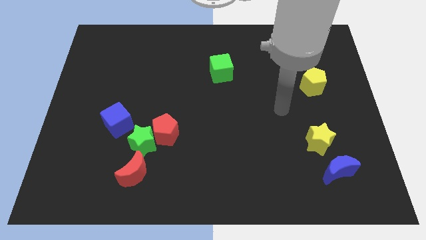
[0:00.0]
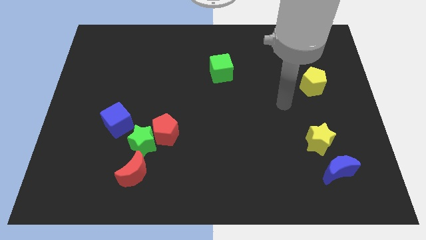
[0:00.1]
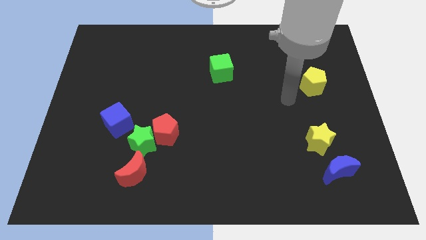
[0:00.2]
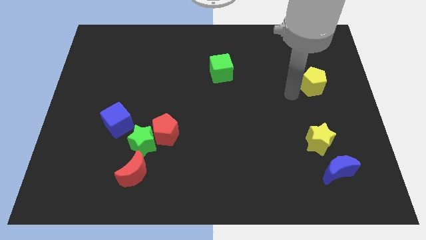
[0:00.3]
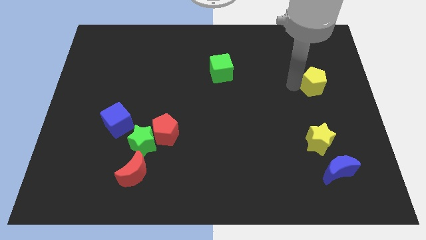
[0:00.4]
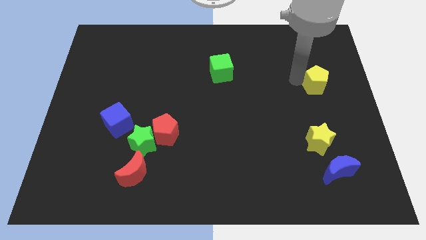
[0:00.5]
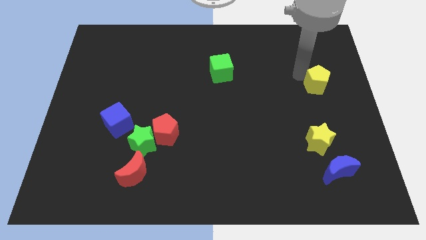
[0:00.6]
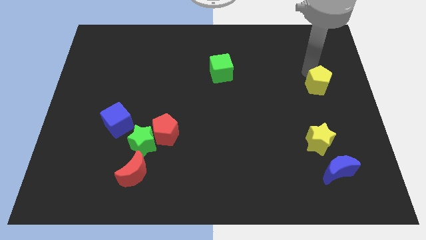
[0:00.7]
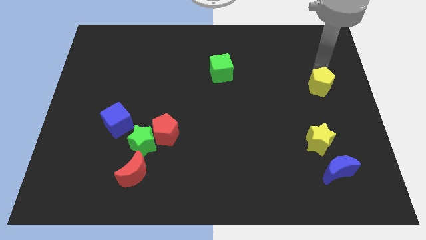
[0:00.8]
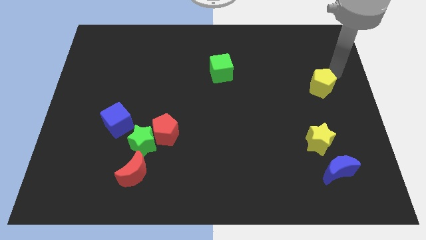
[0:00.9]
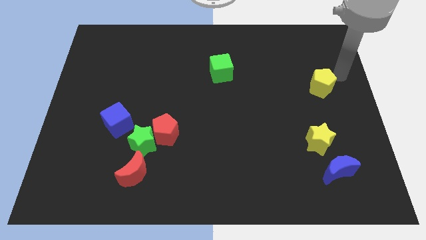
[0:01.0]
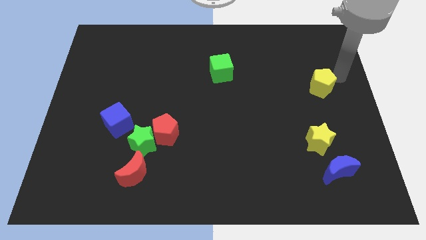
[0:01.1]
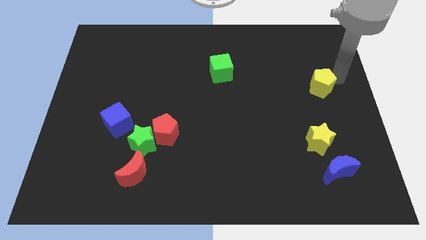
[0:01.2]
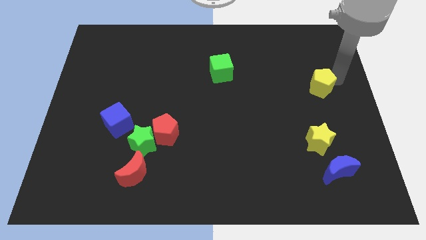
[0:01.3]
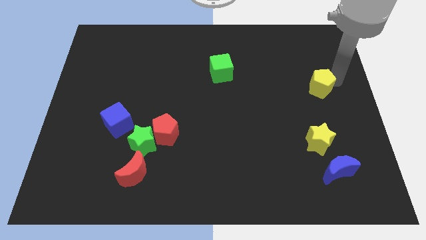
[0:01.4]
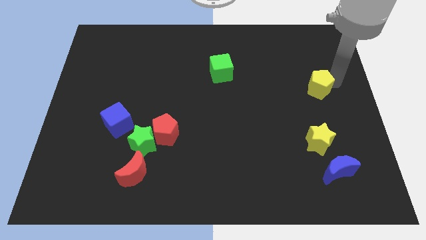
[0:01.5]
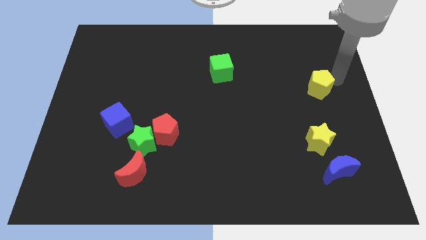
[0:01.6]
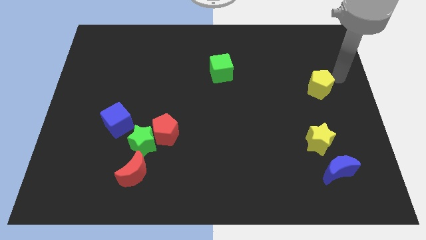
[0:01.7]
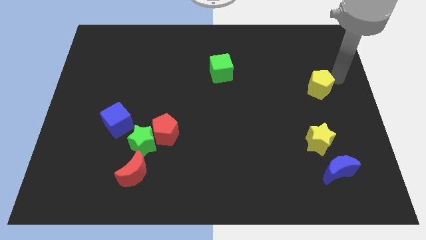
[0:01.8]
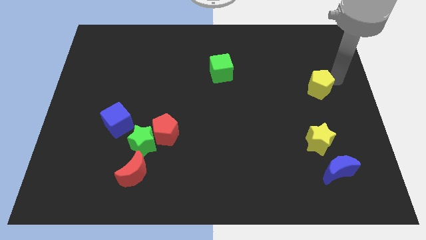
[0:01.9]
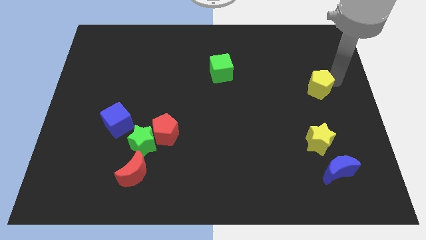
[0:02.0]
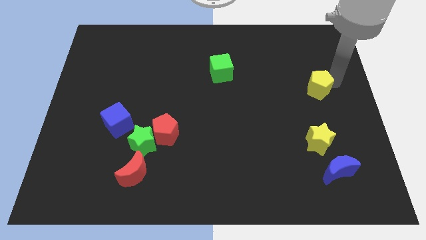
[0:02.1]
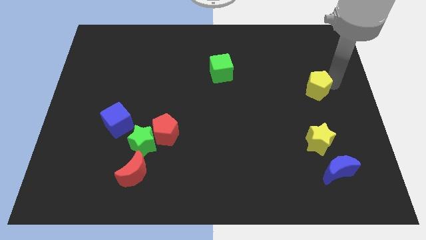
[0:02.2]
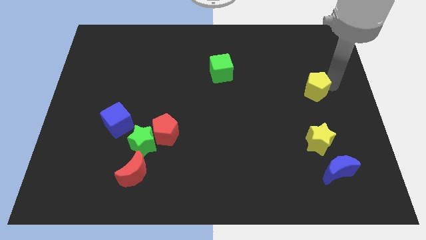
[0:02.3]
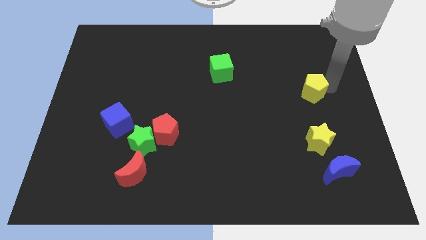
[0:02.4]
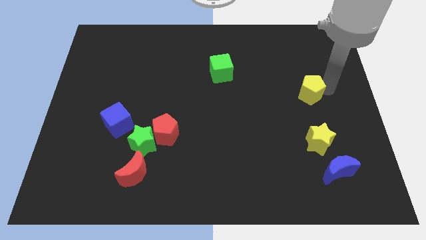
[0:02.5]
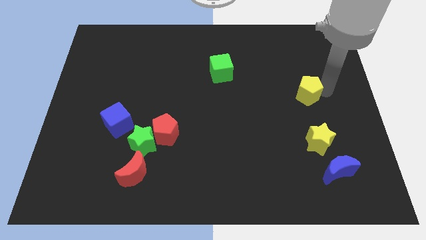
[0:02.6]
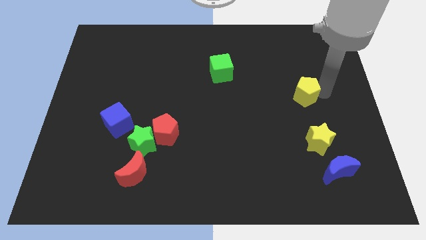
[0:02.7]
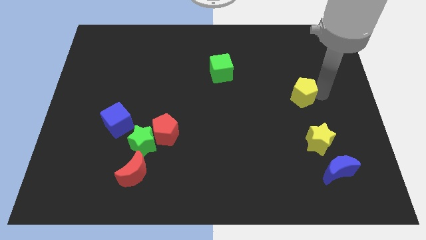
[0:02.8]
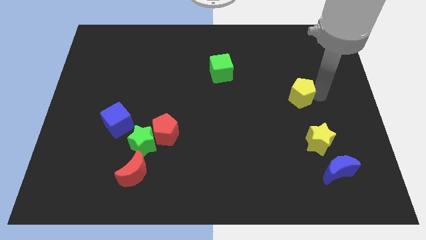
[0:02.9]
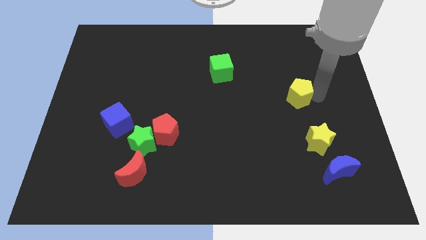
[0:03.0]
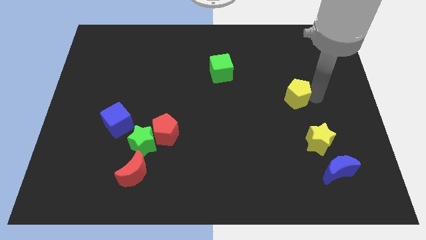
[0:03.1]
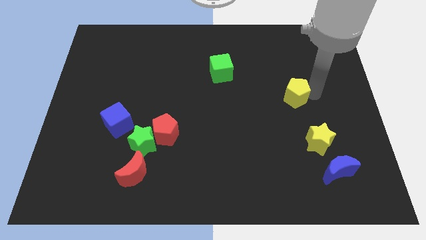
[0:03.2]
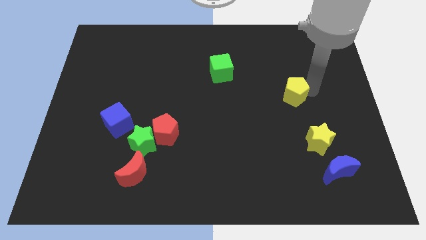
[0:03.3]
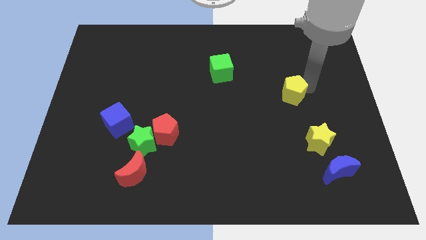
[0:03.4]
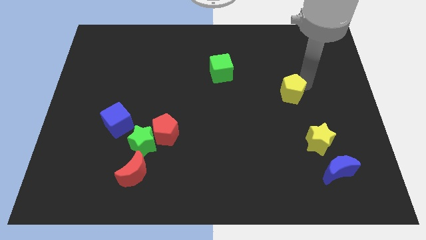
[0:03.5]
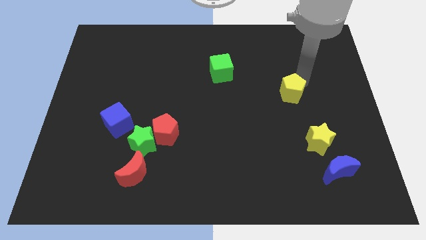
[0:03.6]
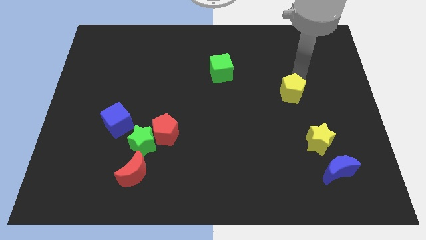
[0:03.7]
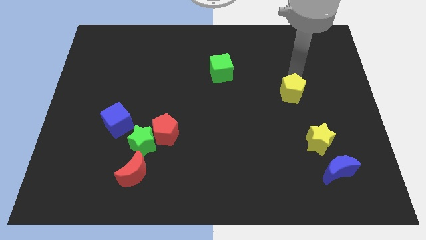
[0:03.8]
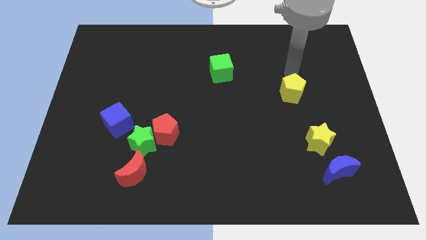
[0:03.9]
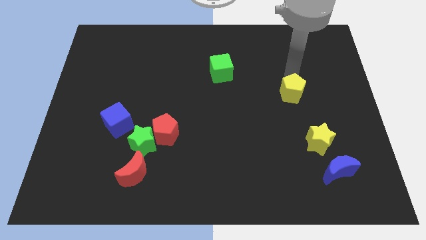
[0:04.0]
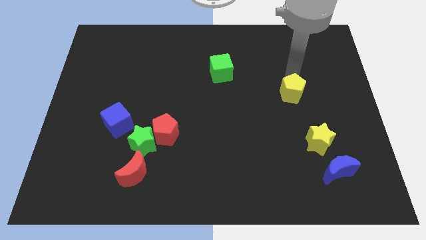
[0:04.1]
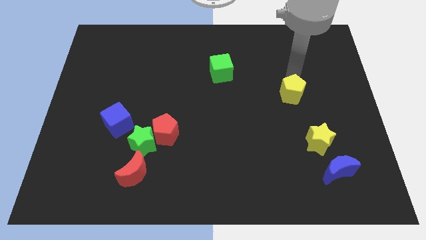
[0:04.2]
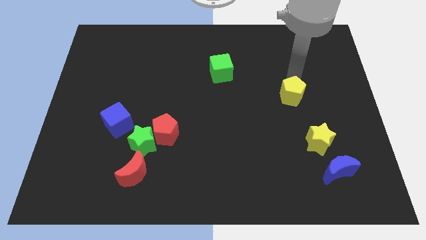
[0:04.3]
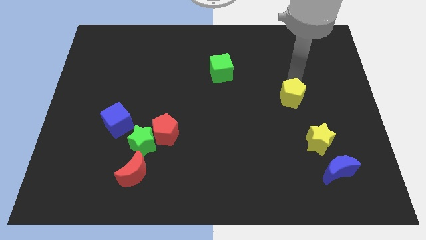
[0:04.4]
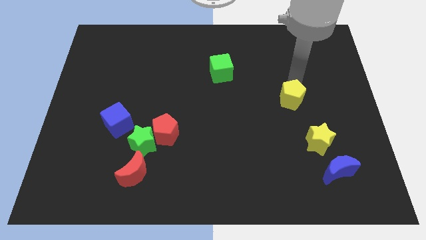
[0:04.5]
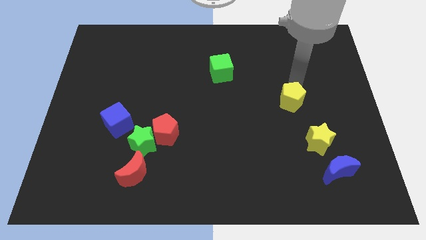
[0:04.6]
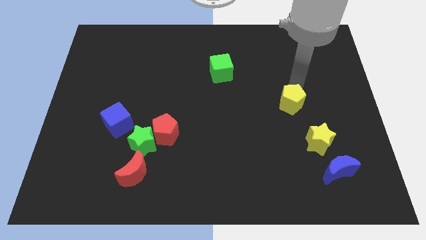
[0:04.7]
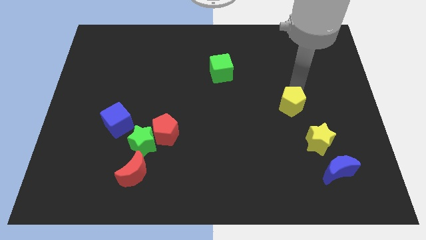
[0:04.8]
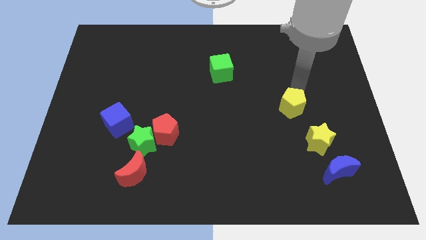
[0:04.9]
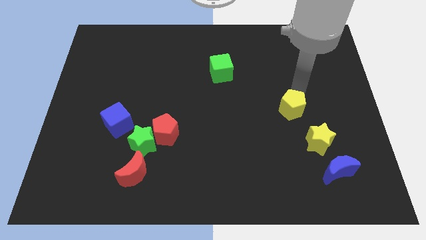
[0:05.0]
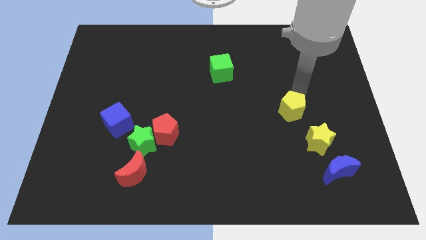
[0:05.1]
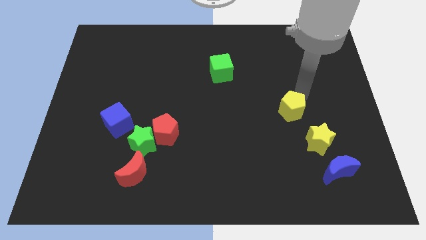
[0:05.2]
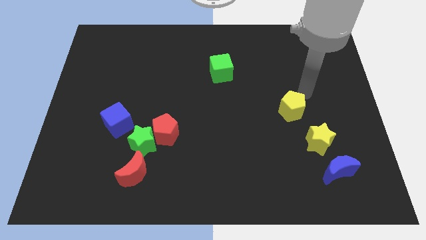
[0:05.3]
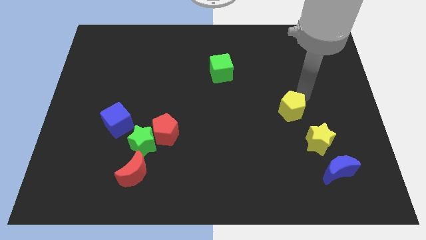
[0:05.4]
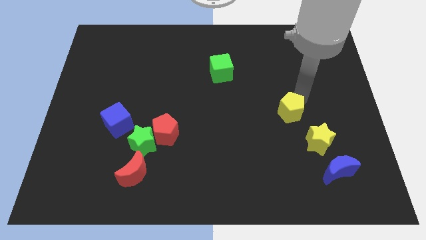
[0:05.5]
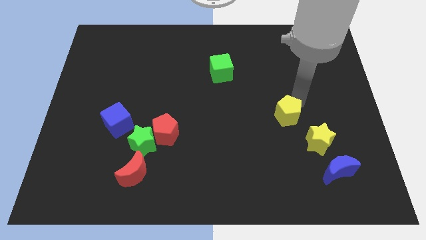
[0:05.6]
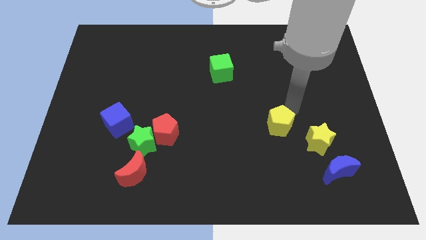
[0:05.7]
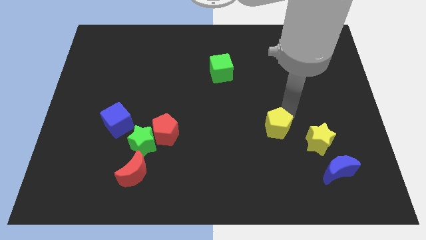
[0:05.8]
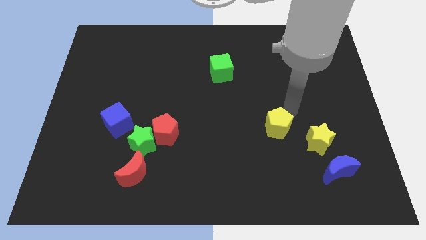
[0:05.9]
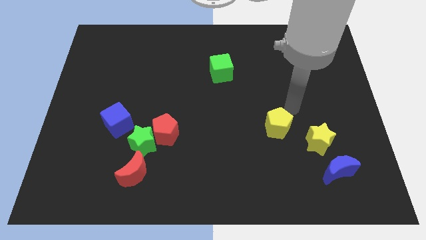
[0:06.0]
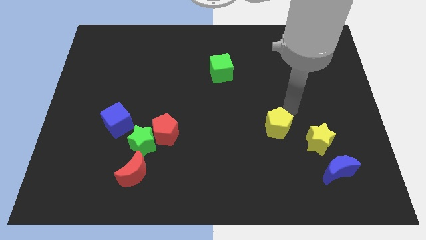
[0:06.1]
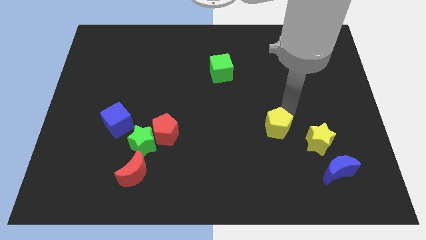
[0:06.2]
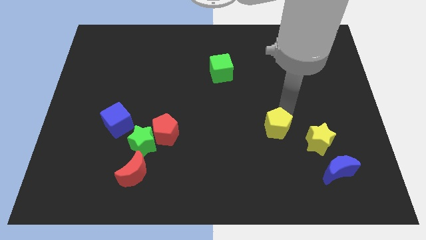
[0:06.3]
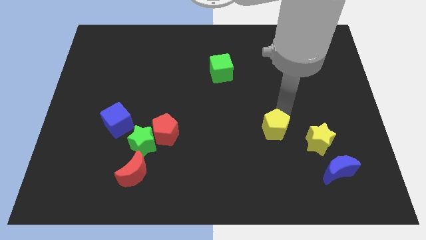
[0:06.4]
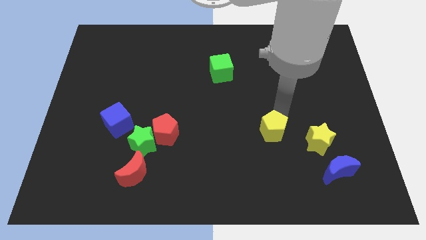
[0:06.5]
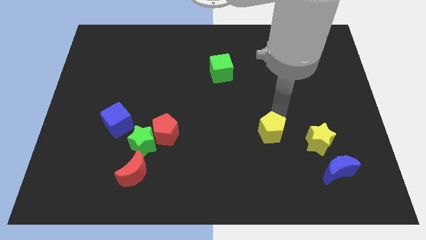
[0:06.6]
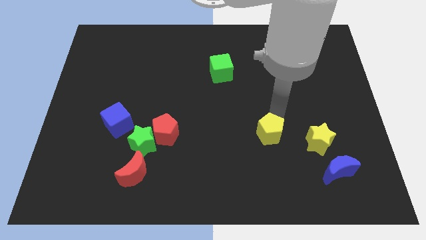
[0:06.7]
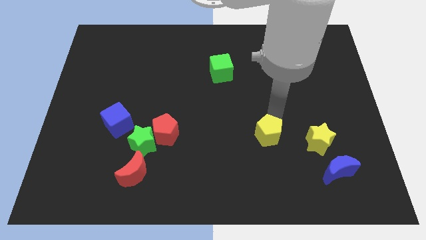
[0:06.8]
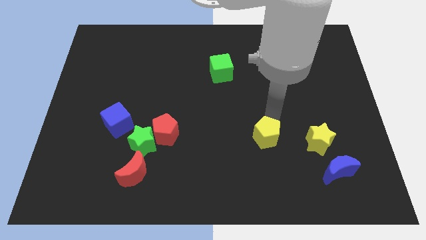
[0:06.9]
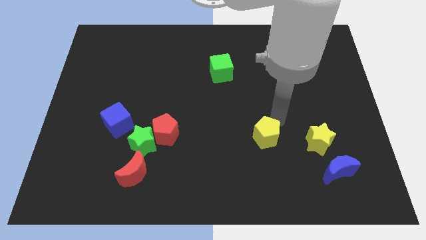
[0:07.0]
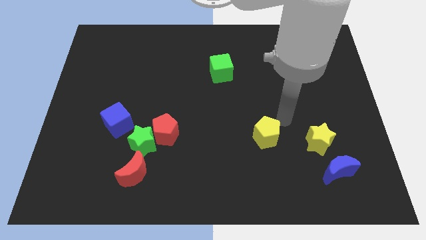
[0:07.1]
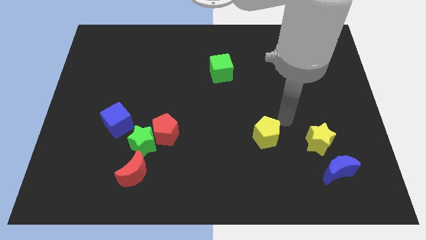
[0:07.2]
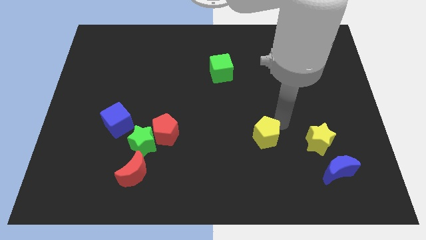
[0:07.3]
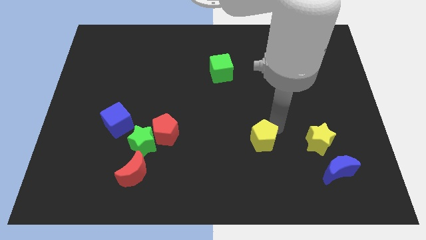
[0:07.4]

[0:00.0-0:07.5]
move the yellow pentagon down and left diagonally

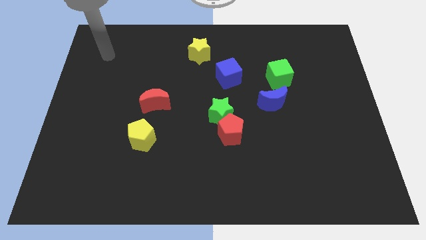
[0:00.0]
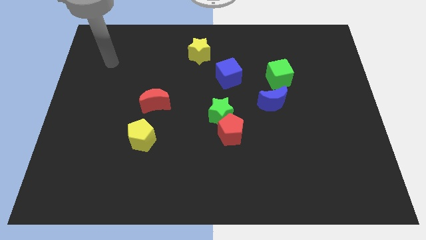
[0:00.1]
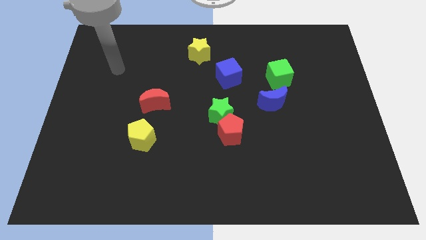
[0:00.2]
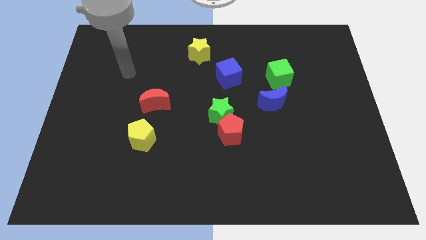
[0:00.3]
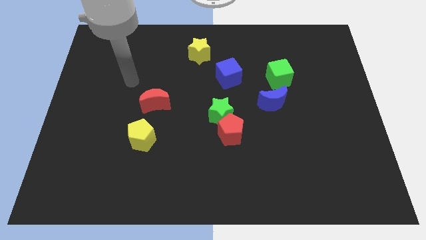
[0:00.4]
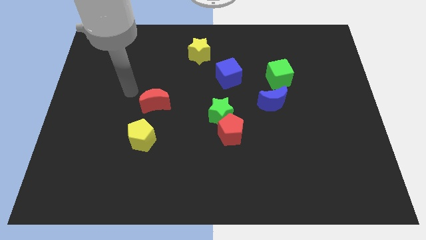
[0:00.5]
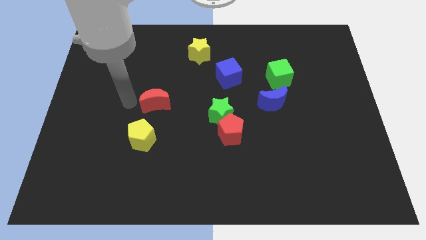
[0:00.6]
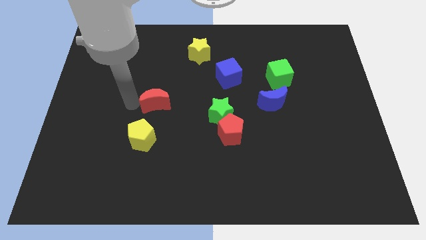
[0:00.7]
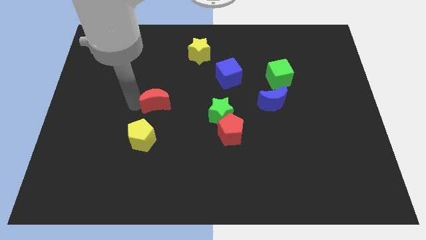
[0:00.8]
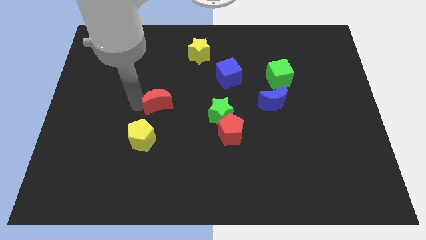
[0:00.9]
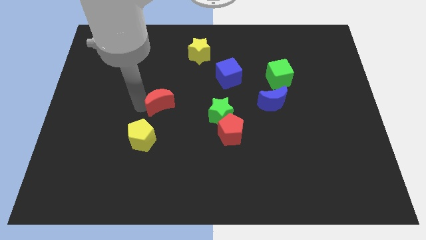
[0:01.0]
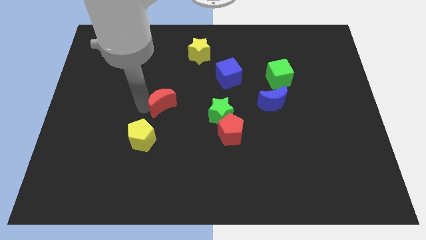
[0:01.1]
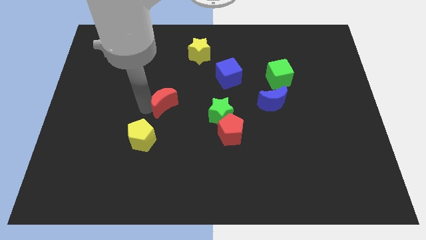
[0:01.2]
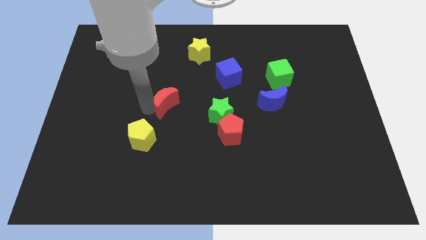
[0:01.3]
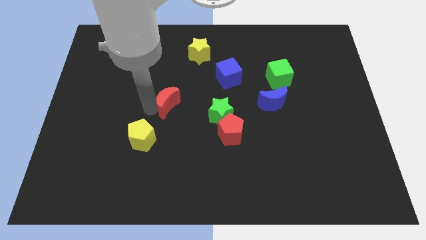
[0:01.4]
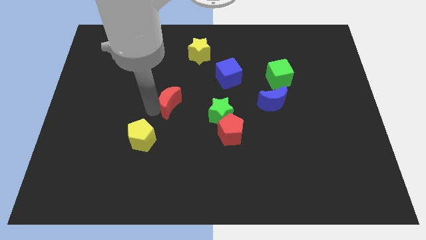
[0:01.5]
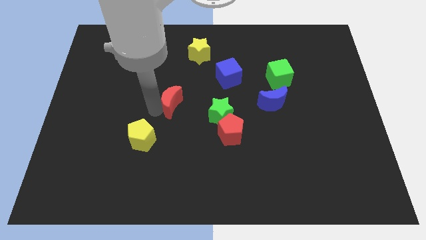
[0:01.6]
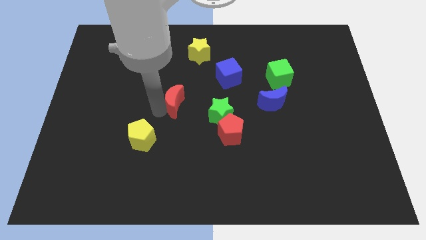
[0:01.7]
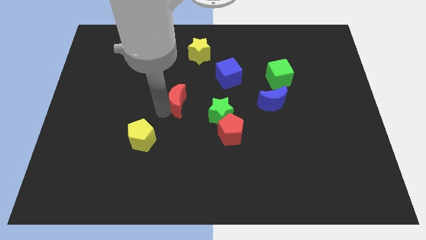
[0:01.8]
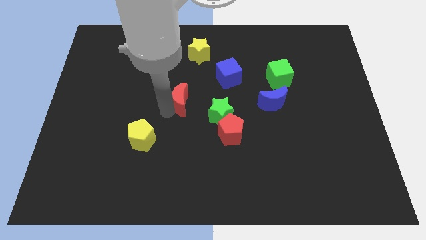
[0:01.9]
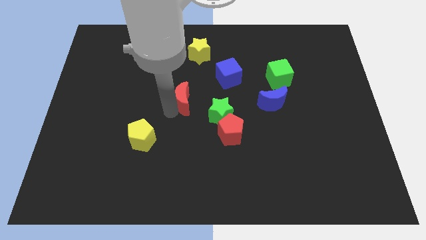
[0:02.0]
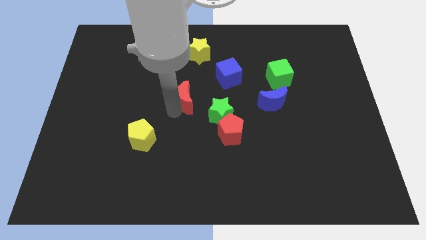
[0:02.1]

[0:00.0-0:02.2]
push the red moon to the right a little bit
